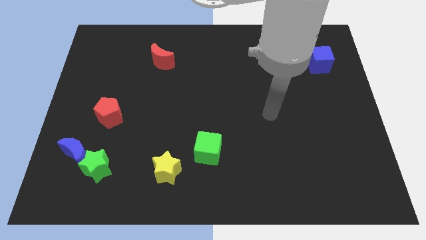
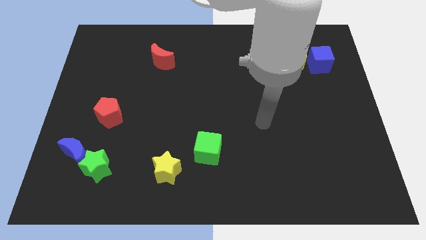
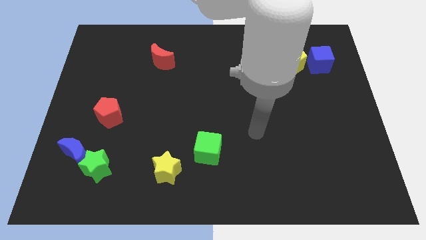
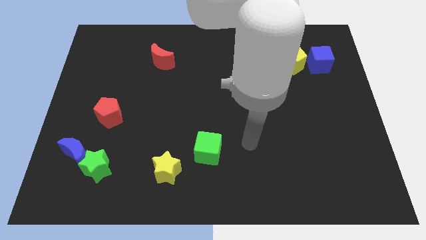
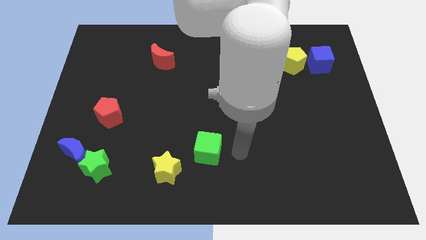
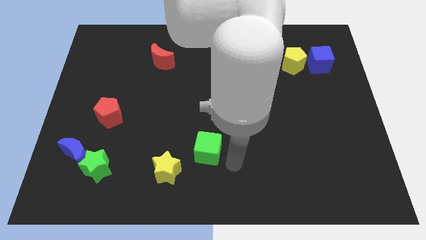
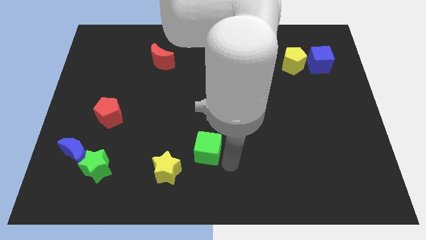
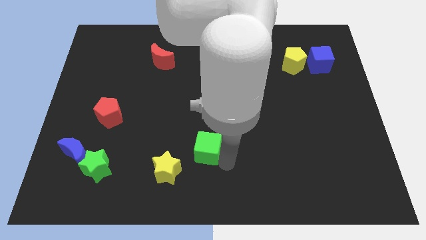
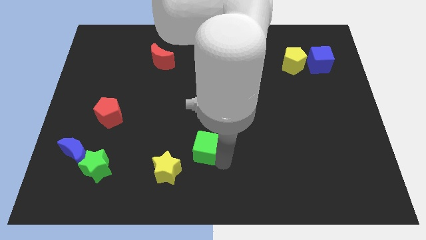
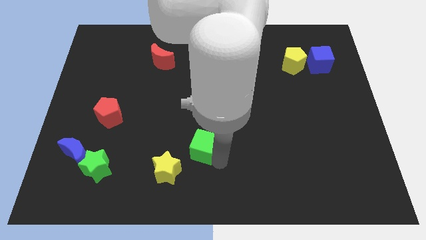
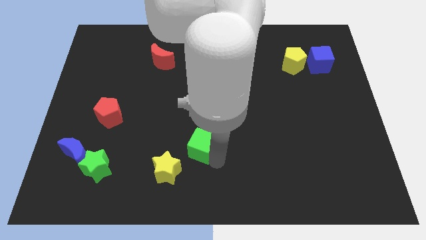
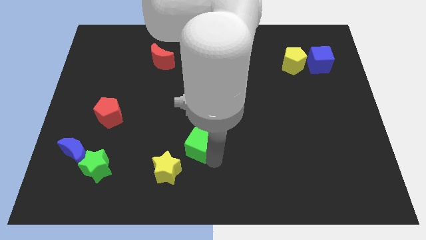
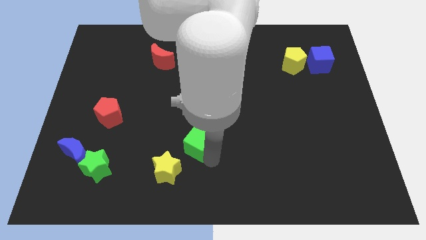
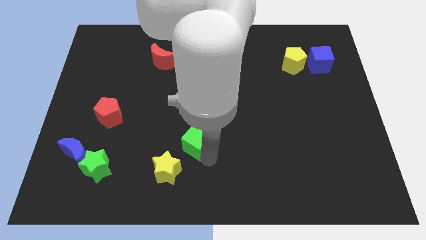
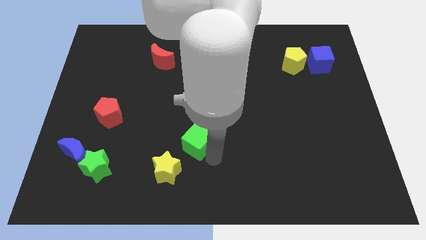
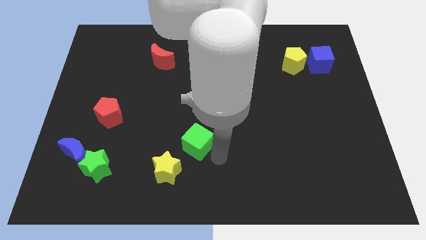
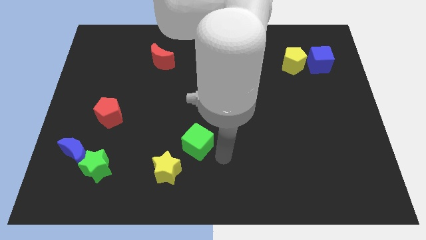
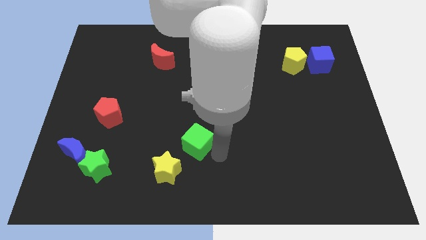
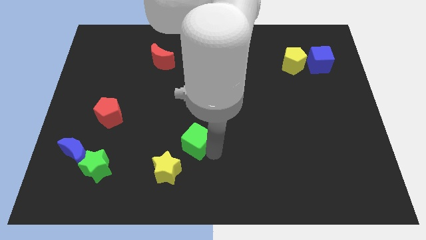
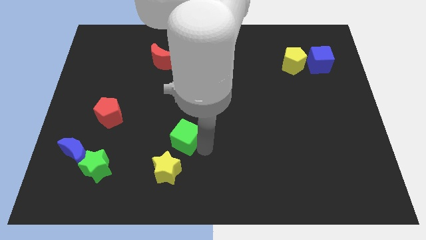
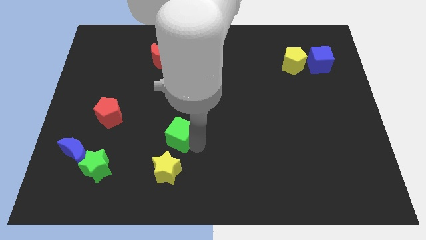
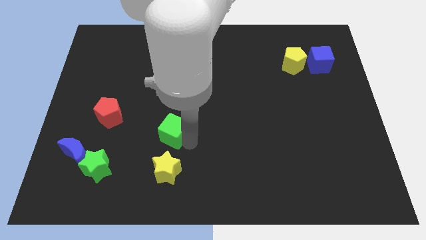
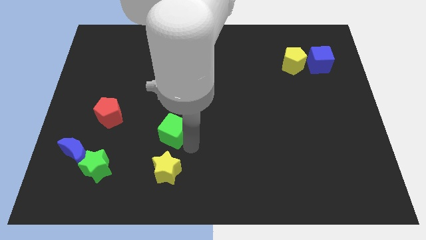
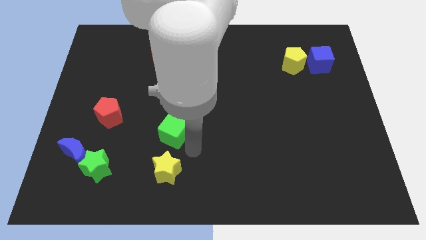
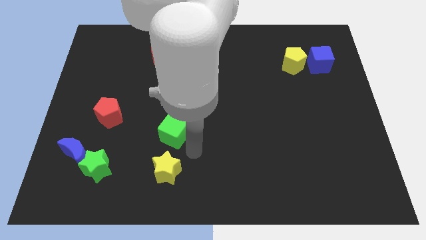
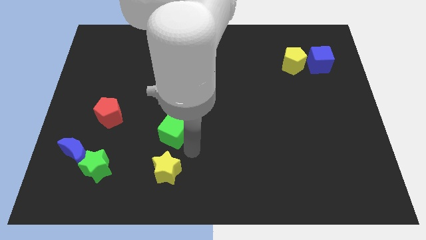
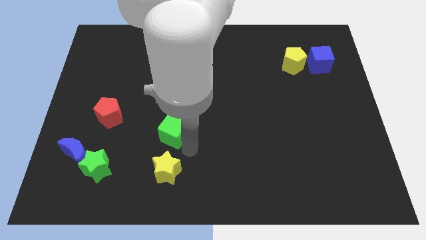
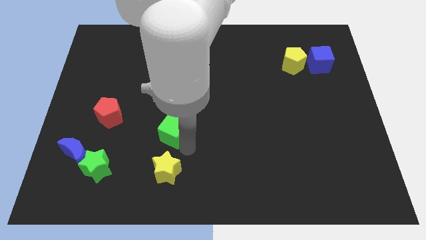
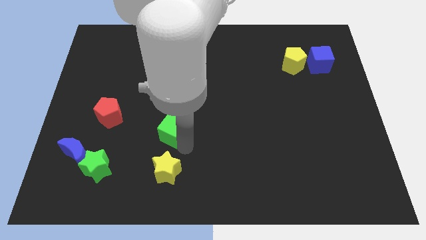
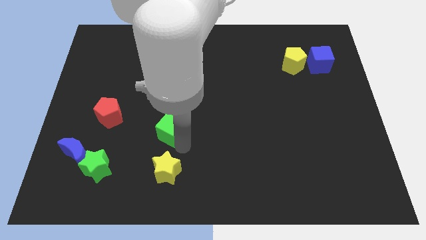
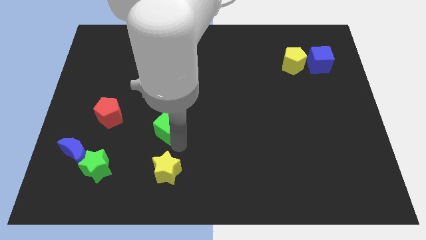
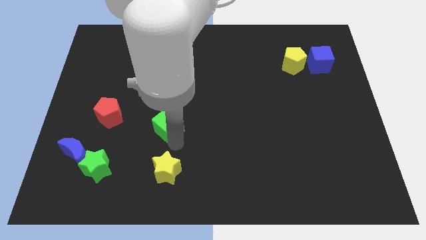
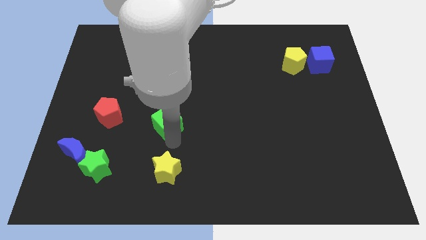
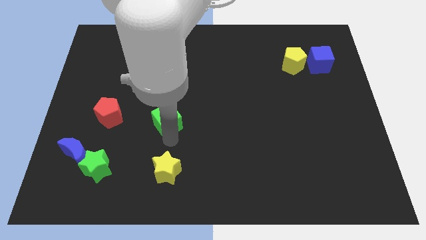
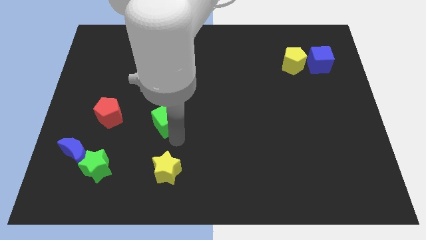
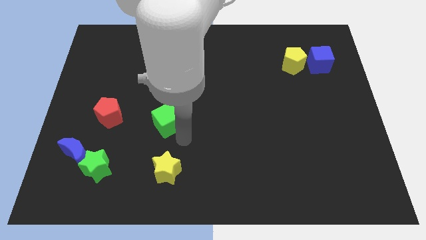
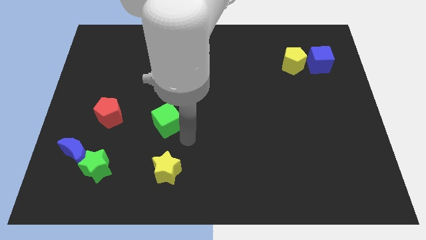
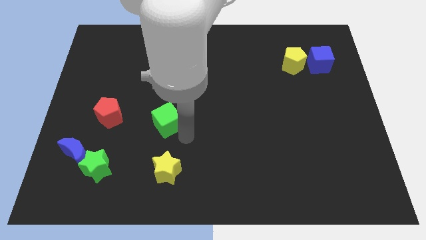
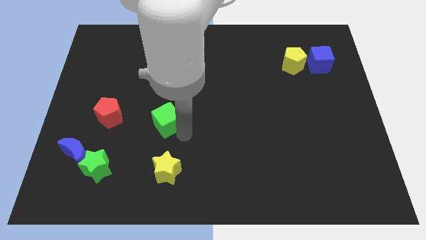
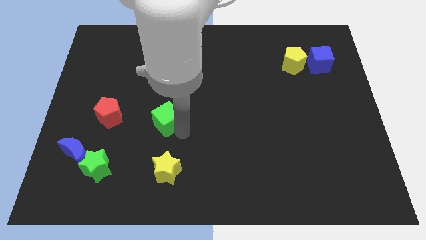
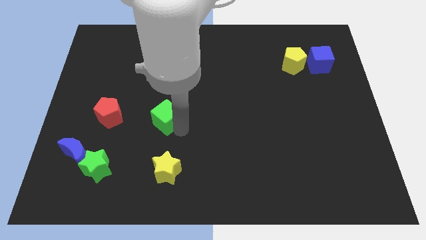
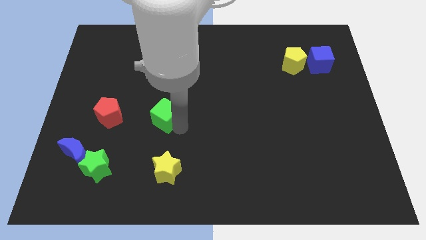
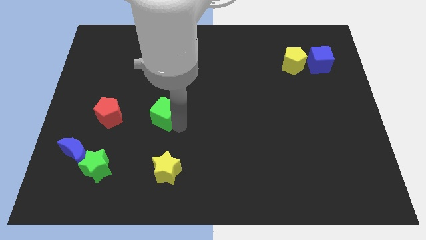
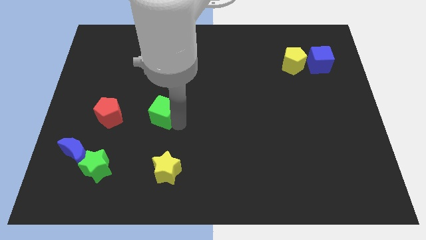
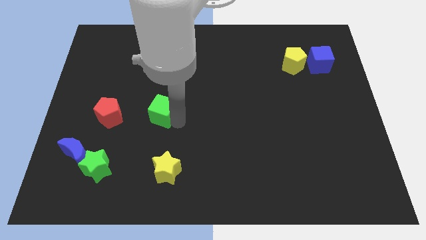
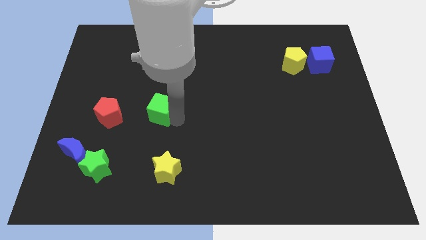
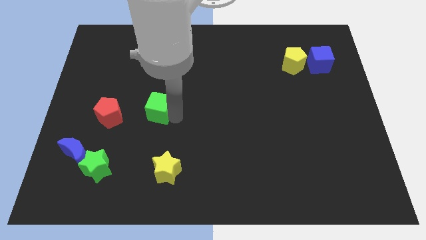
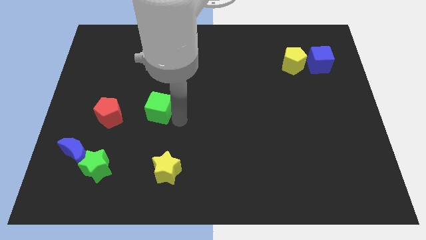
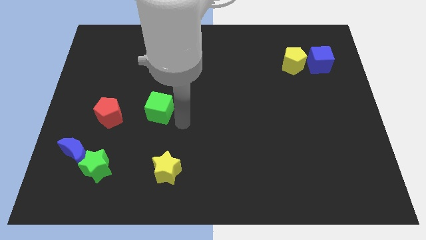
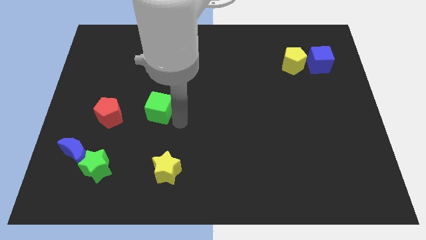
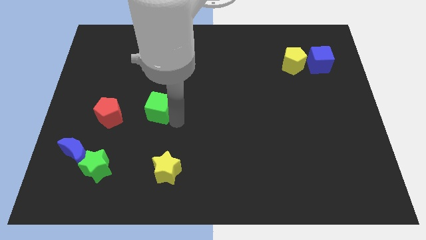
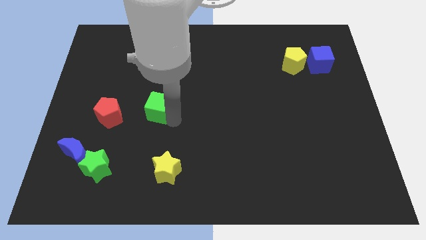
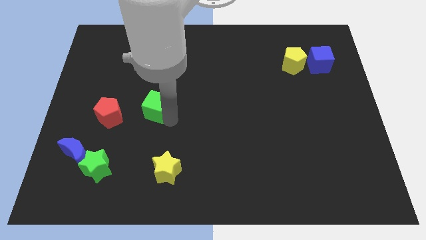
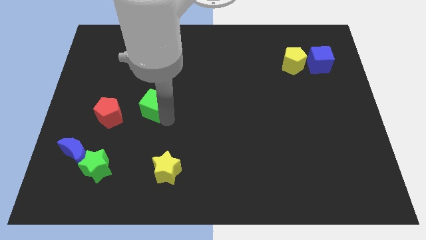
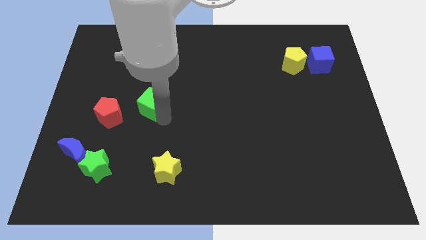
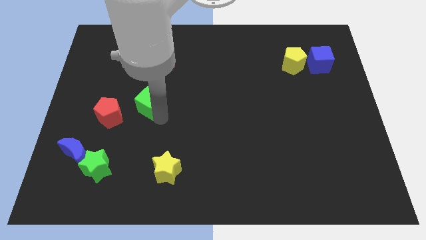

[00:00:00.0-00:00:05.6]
put the green cube to the top right side of the red pentagon

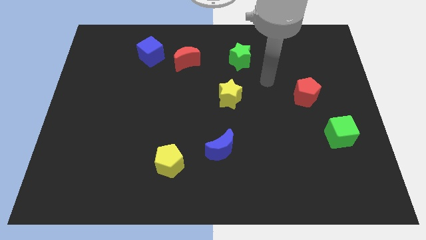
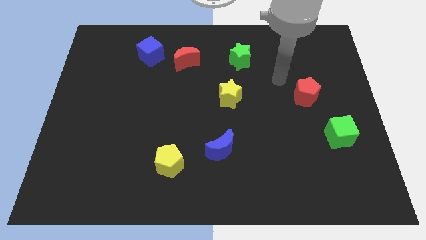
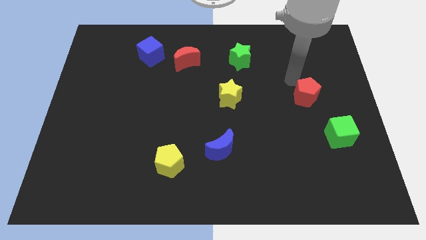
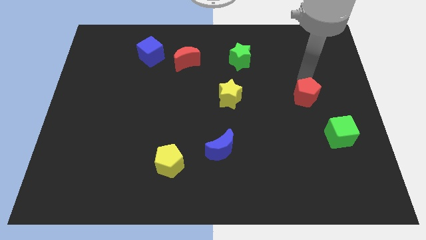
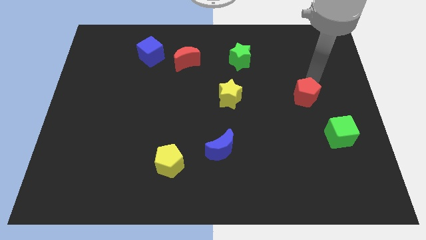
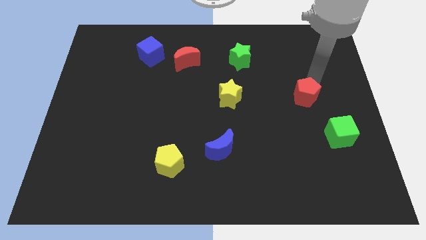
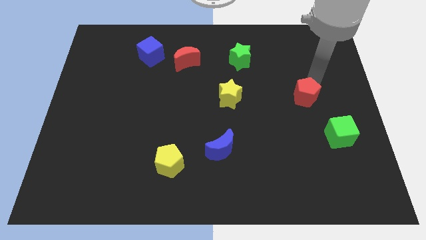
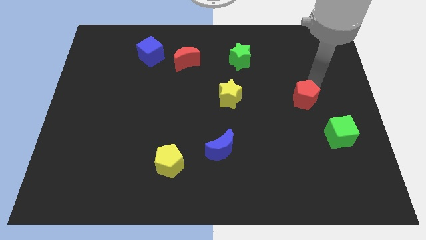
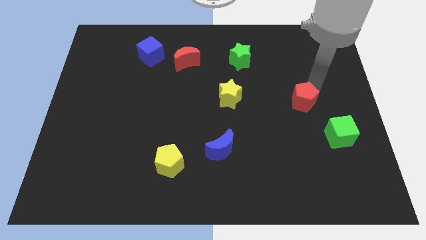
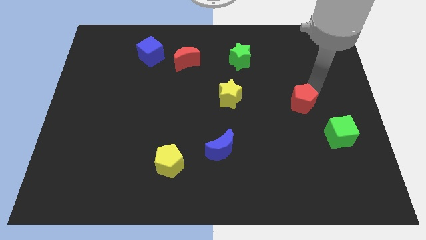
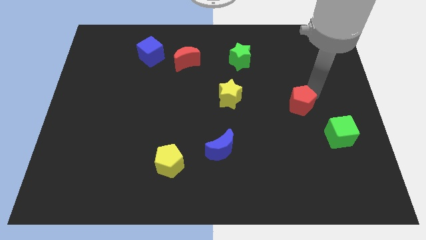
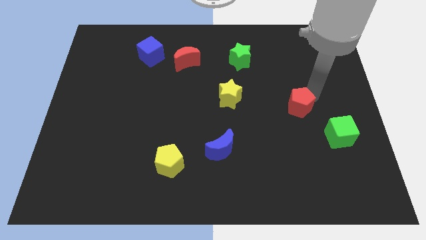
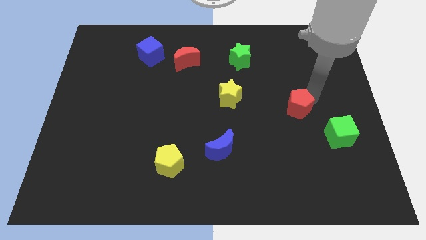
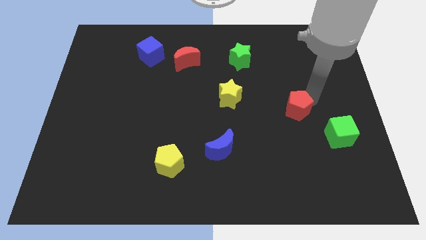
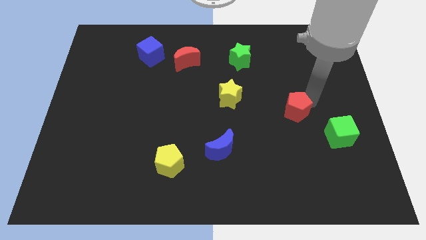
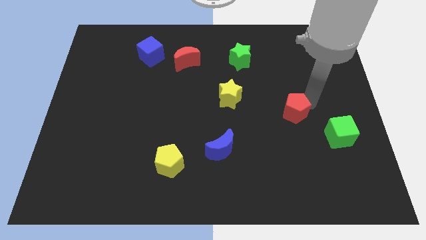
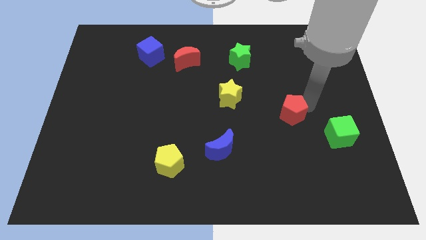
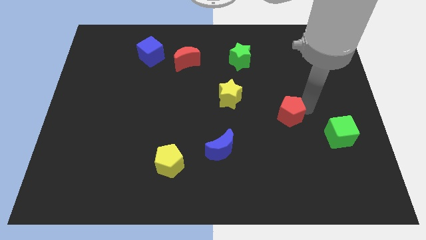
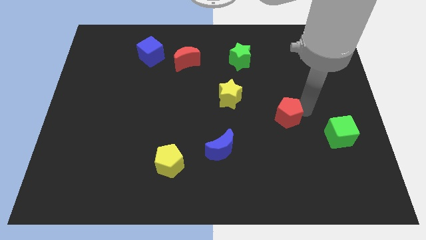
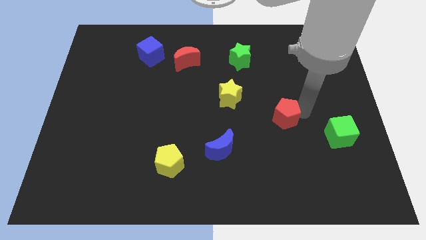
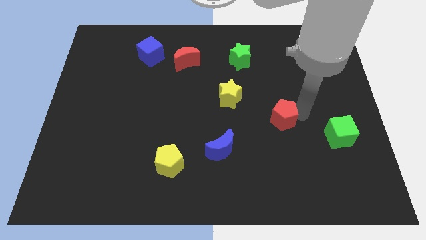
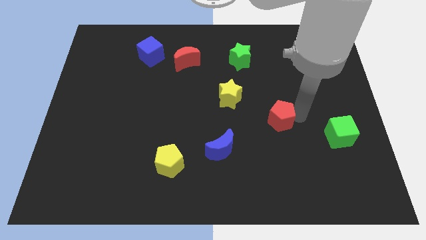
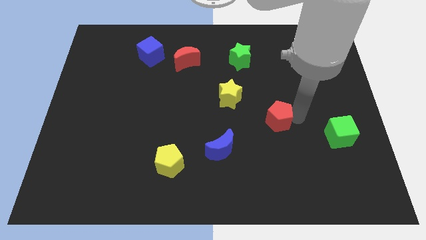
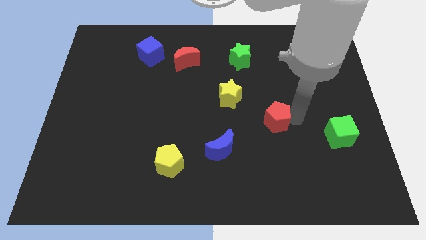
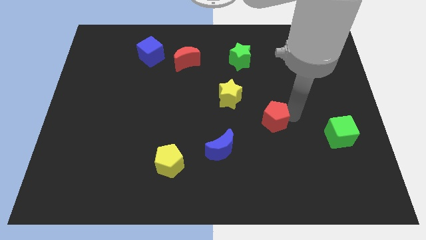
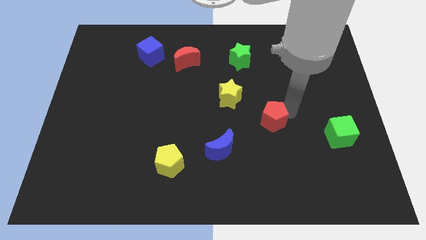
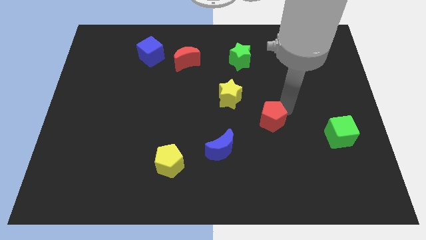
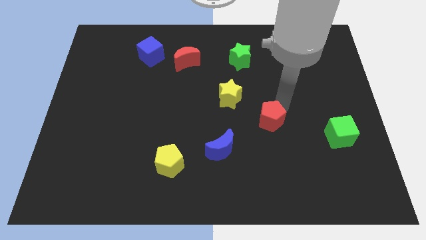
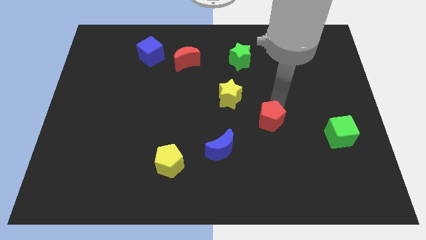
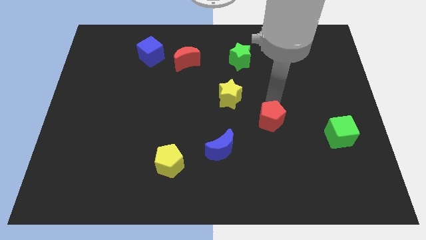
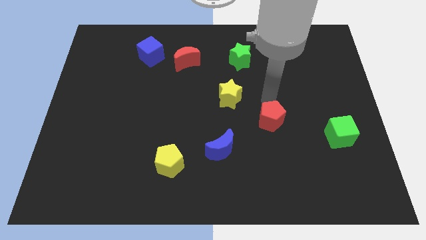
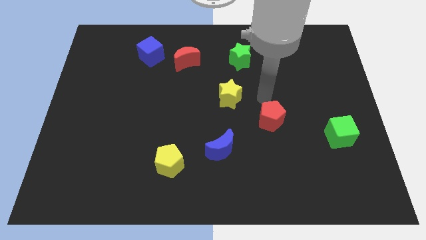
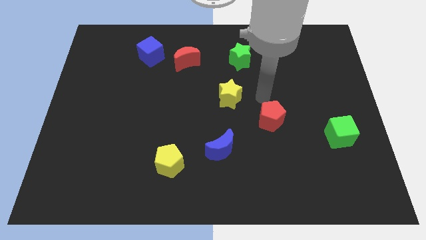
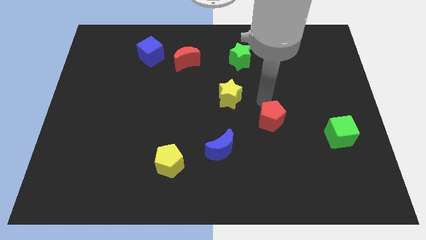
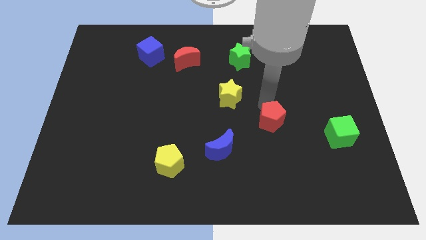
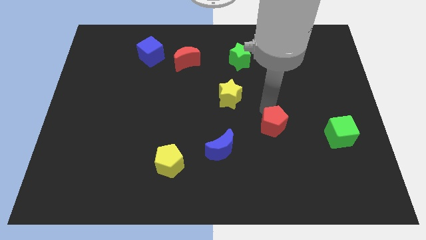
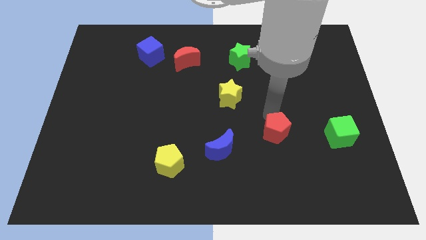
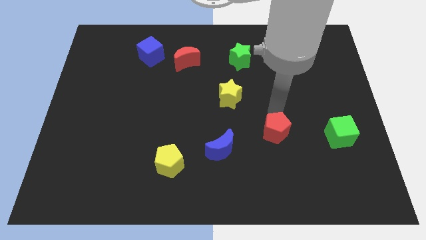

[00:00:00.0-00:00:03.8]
slide the red pentagon to the right side of the blue moon
